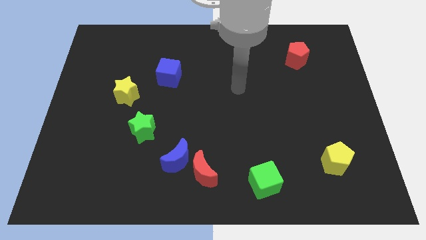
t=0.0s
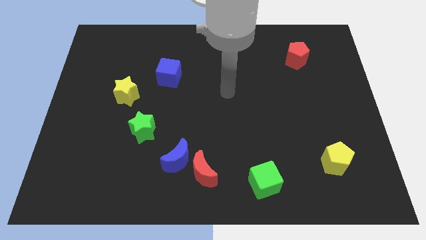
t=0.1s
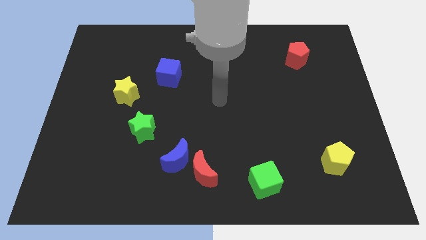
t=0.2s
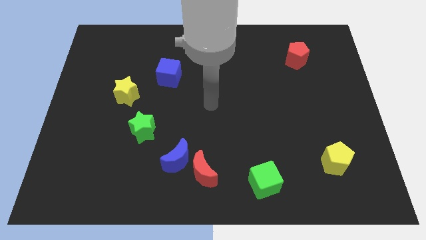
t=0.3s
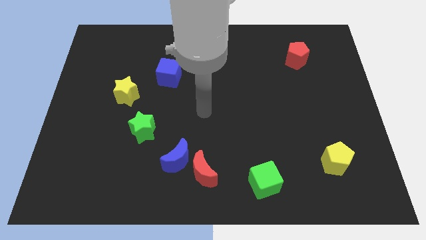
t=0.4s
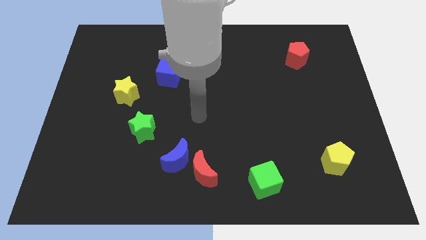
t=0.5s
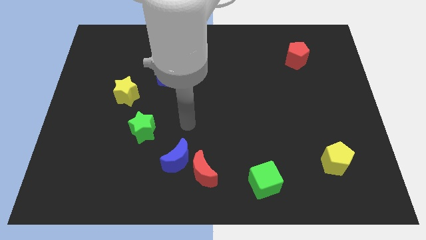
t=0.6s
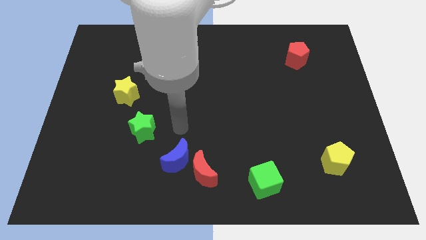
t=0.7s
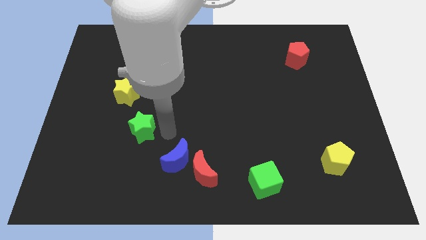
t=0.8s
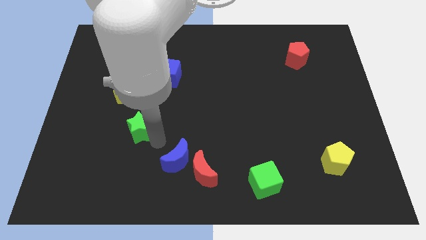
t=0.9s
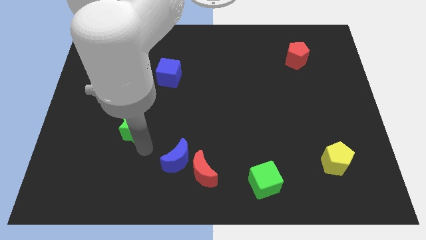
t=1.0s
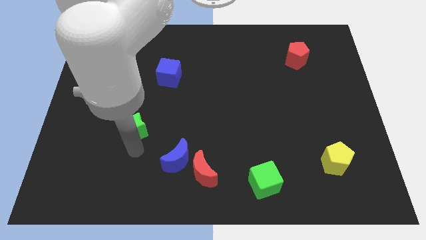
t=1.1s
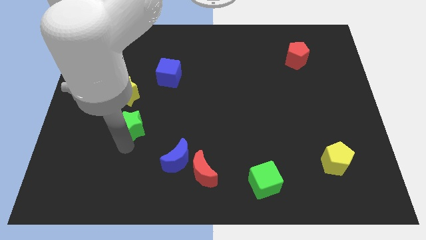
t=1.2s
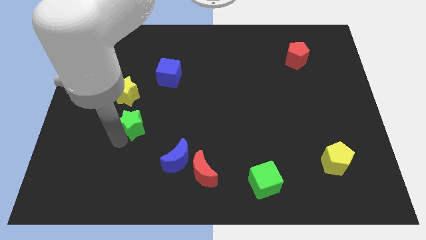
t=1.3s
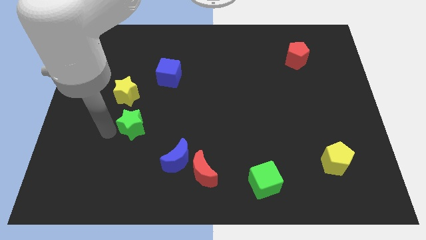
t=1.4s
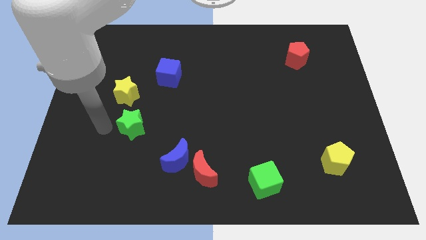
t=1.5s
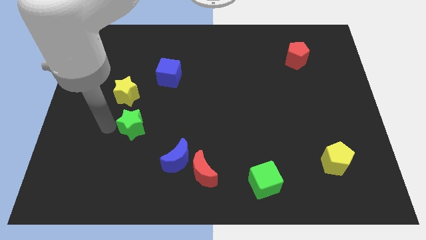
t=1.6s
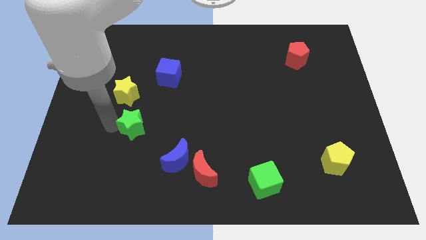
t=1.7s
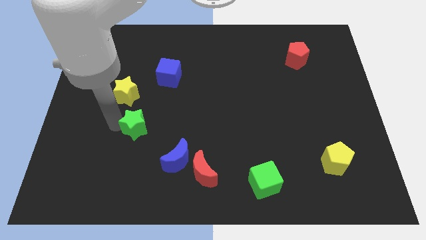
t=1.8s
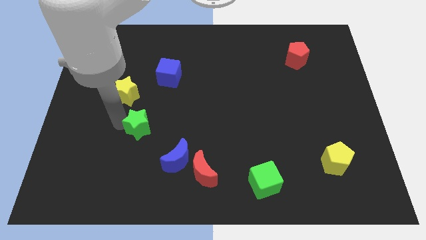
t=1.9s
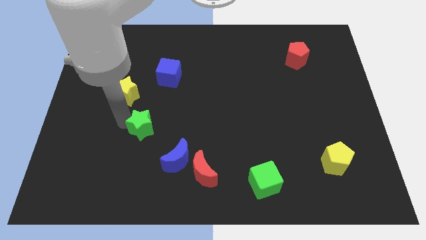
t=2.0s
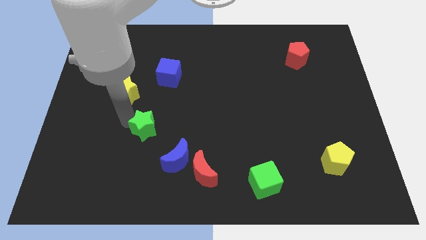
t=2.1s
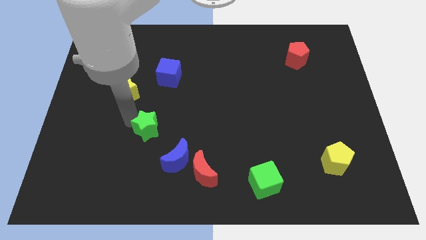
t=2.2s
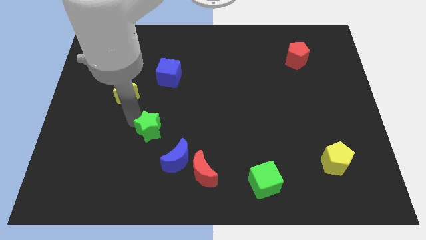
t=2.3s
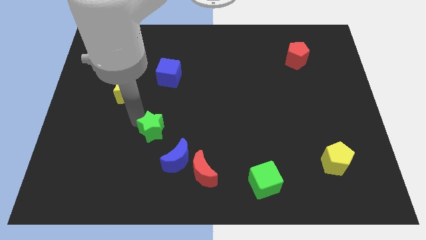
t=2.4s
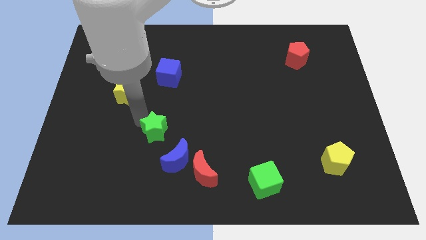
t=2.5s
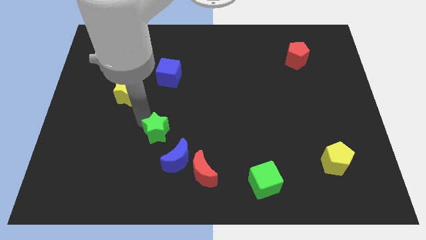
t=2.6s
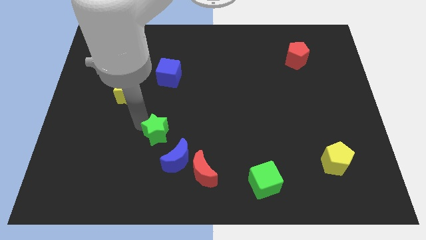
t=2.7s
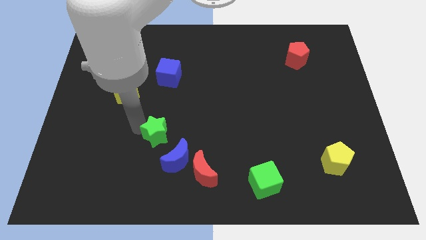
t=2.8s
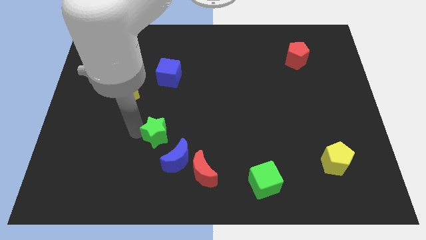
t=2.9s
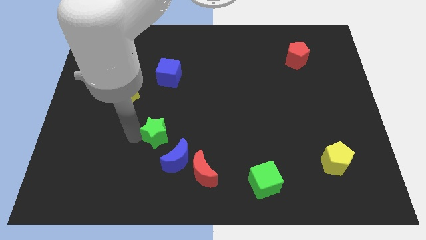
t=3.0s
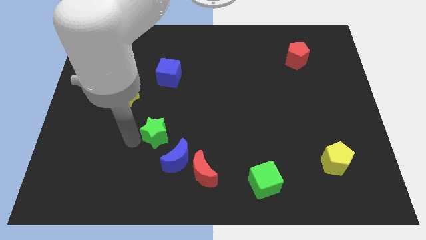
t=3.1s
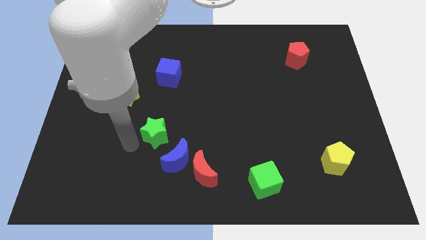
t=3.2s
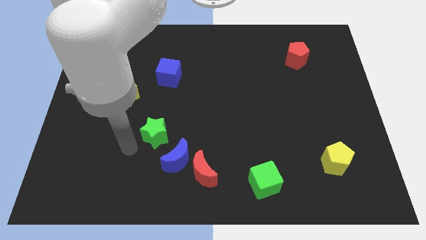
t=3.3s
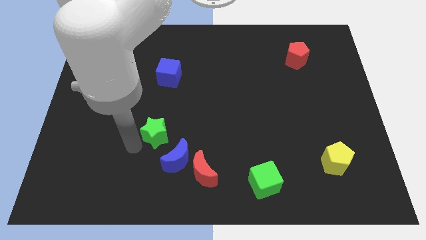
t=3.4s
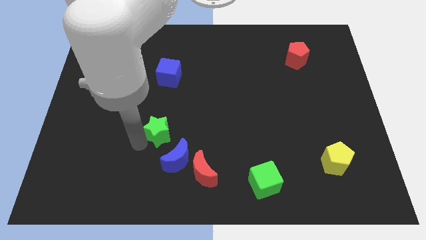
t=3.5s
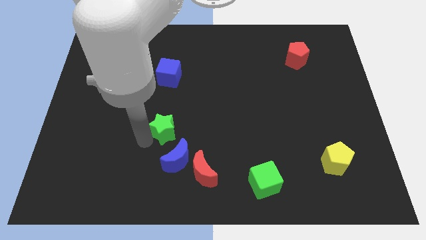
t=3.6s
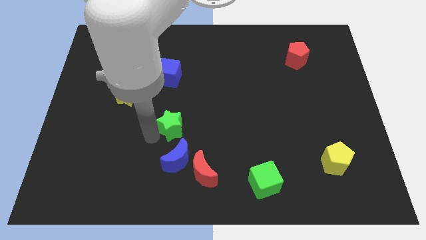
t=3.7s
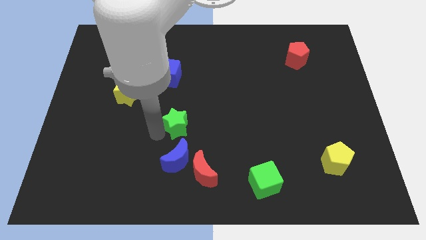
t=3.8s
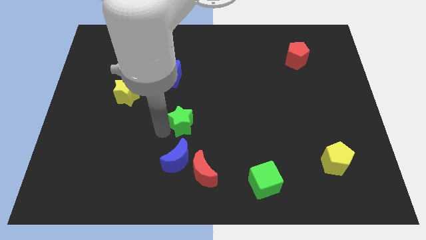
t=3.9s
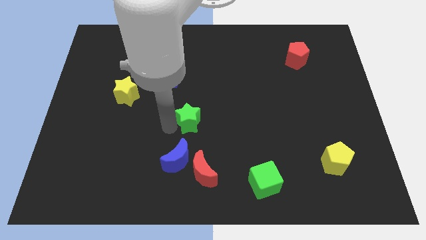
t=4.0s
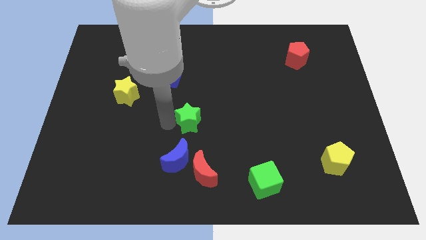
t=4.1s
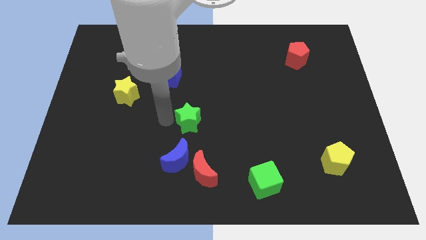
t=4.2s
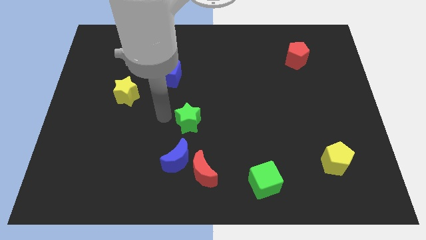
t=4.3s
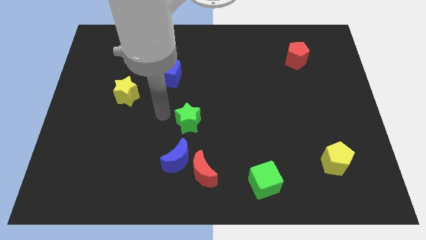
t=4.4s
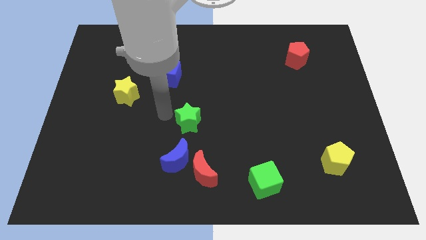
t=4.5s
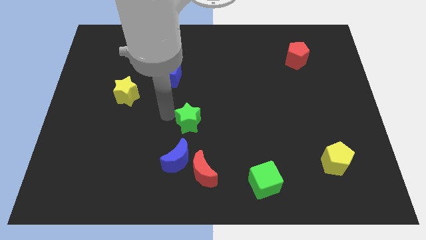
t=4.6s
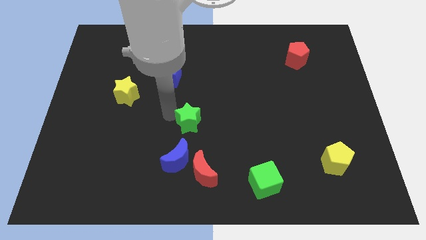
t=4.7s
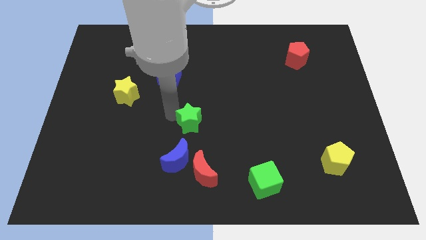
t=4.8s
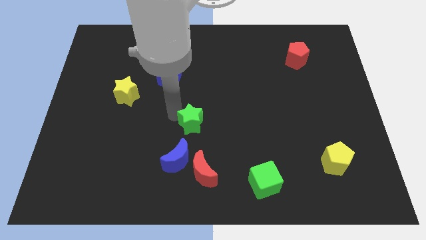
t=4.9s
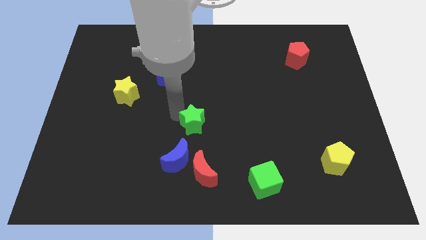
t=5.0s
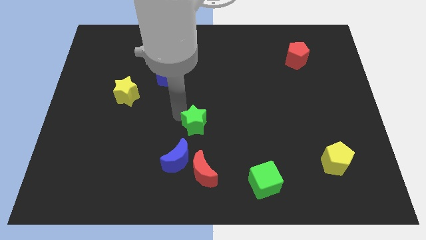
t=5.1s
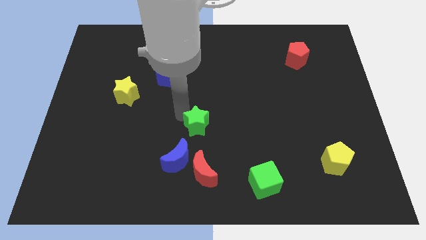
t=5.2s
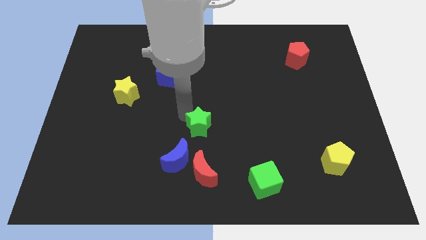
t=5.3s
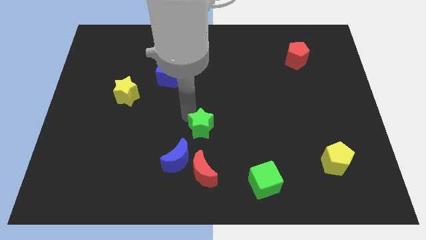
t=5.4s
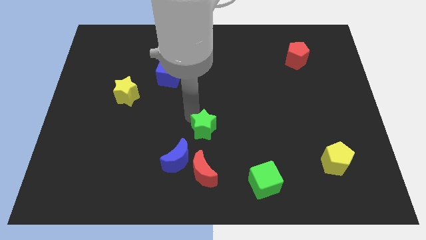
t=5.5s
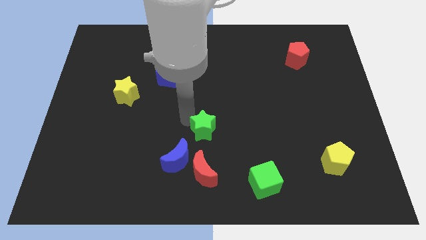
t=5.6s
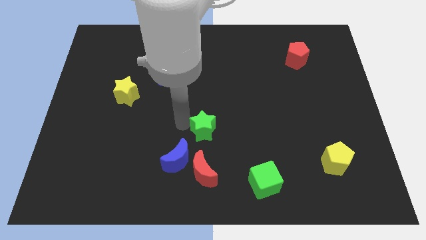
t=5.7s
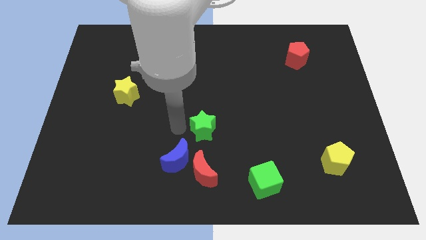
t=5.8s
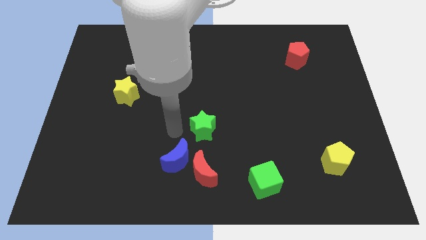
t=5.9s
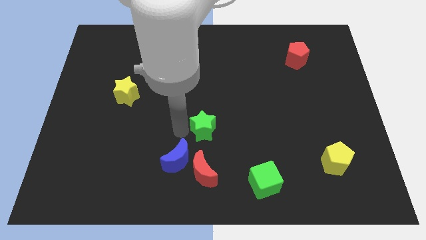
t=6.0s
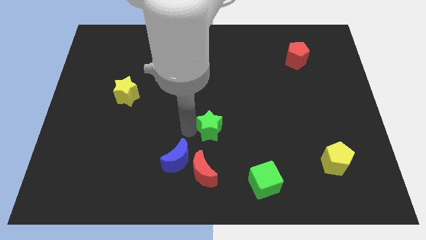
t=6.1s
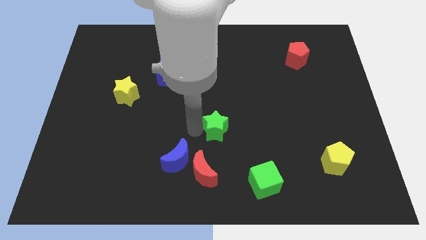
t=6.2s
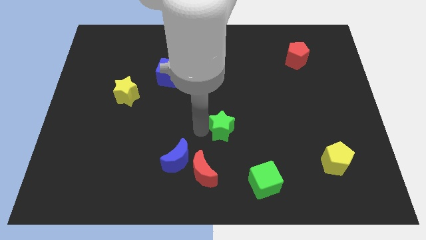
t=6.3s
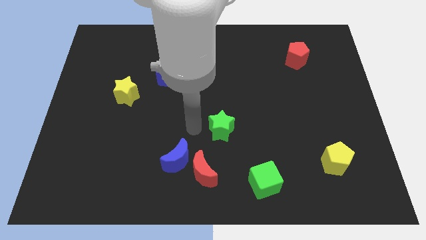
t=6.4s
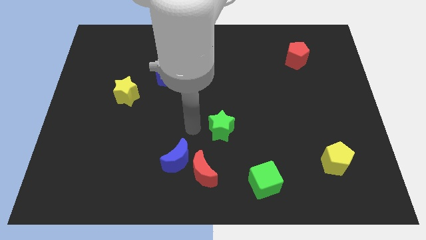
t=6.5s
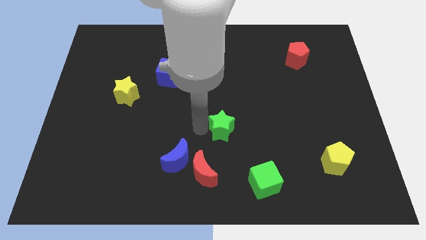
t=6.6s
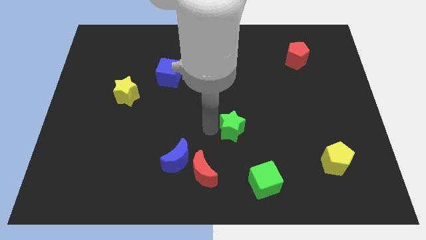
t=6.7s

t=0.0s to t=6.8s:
push the green star to the right

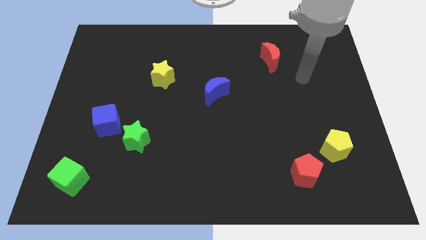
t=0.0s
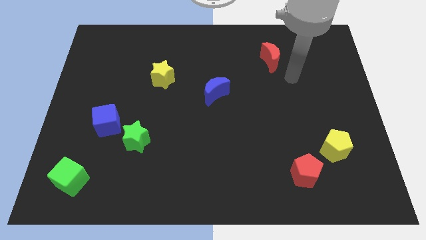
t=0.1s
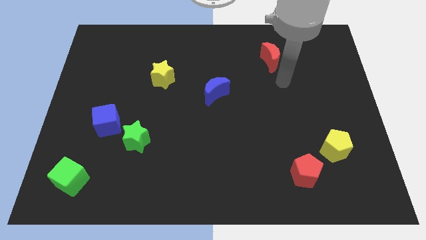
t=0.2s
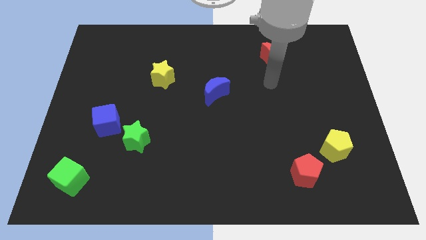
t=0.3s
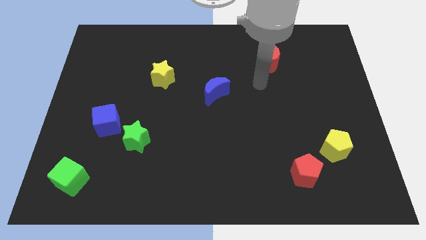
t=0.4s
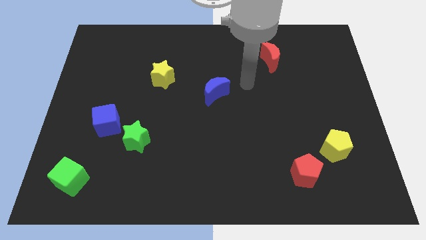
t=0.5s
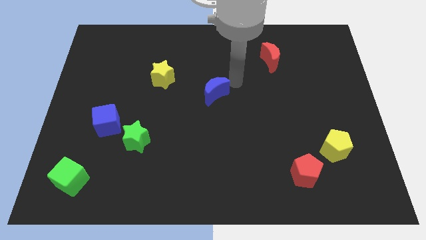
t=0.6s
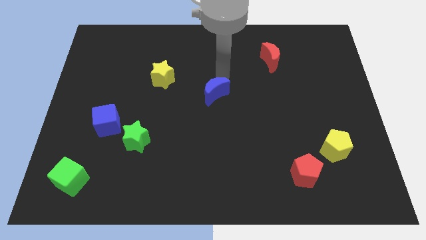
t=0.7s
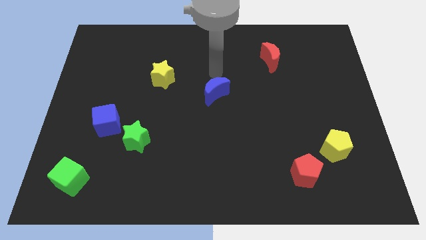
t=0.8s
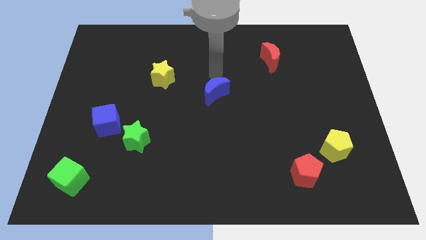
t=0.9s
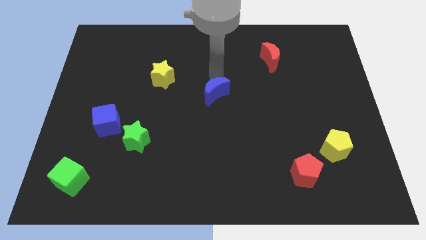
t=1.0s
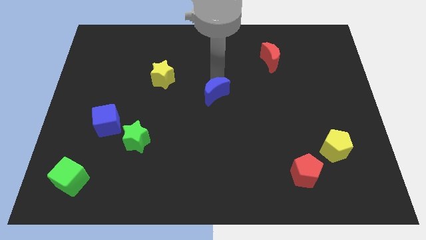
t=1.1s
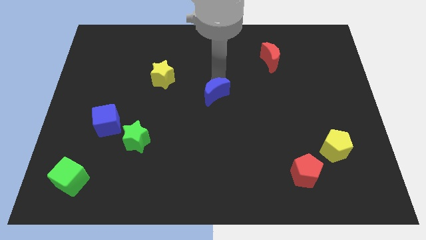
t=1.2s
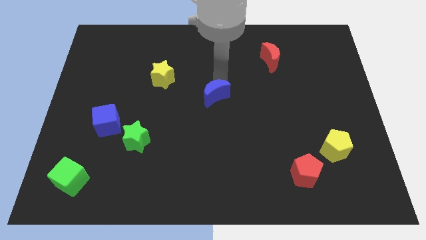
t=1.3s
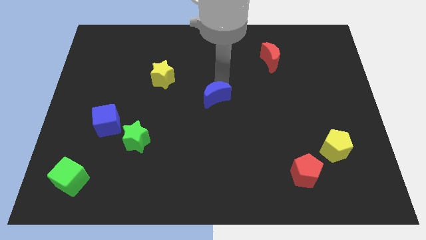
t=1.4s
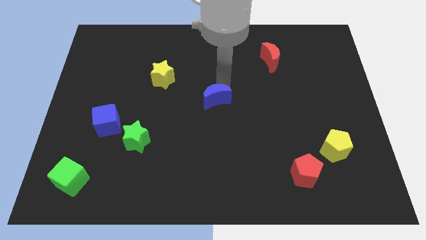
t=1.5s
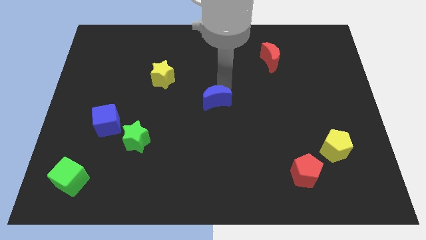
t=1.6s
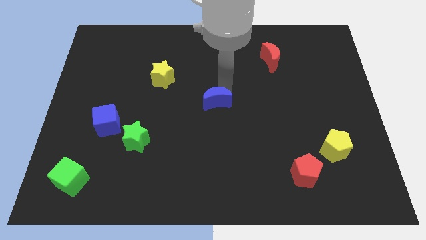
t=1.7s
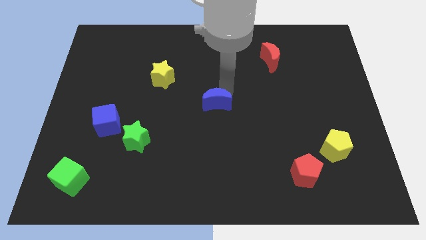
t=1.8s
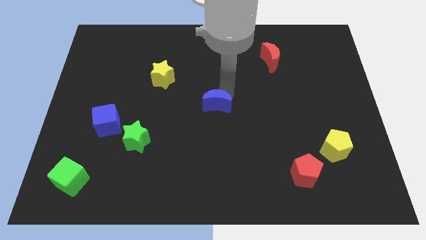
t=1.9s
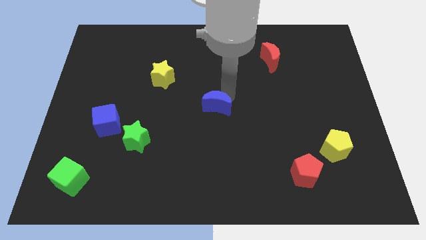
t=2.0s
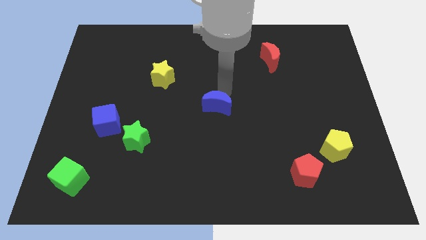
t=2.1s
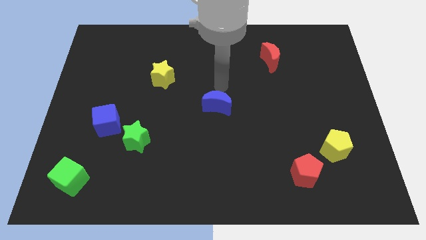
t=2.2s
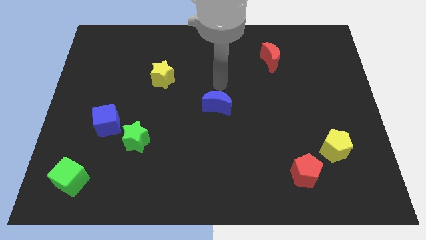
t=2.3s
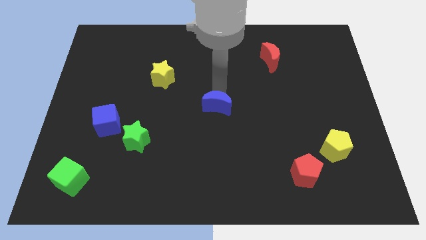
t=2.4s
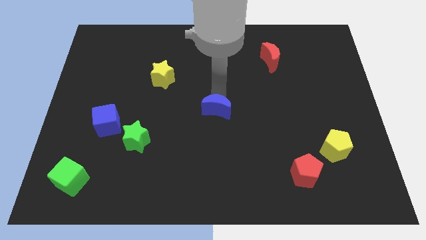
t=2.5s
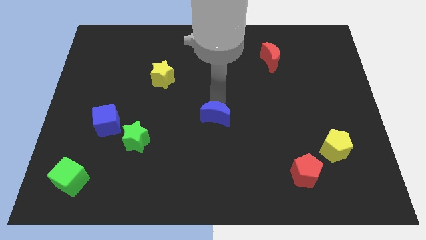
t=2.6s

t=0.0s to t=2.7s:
slide the blue moon a little down
